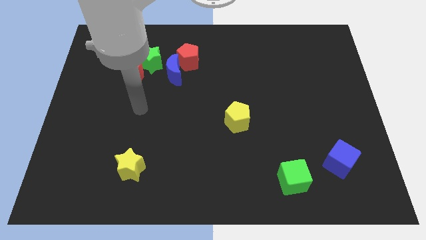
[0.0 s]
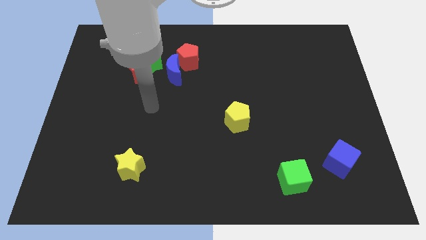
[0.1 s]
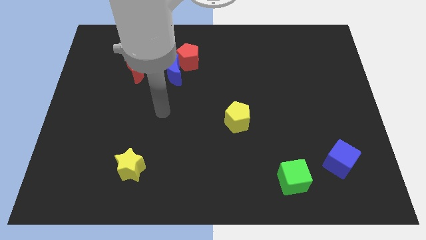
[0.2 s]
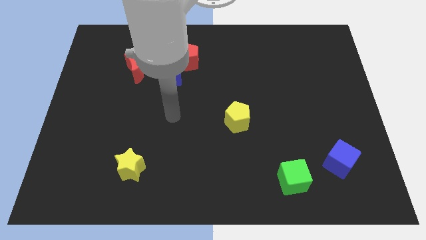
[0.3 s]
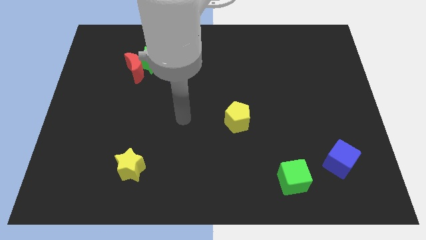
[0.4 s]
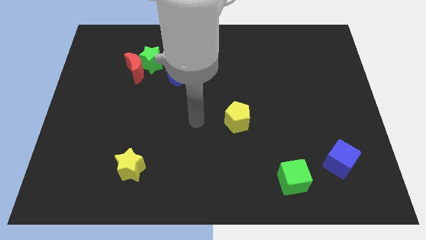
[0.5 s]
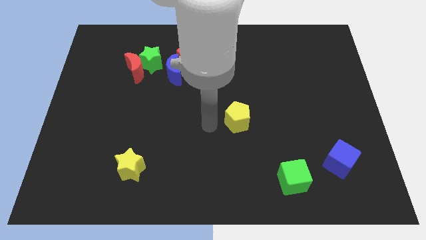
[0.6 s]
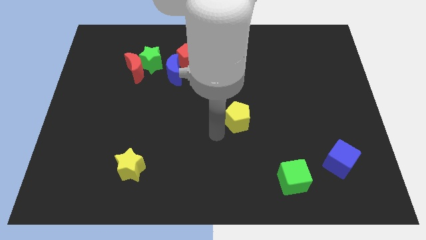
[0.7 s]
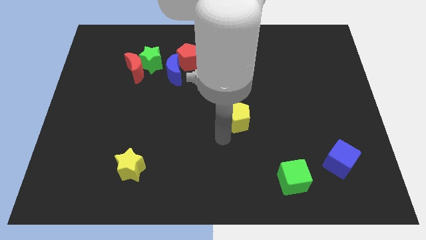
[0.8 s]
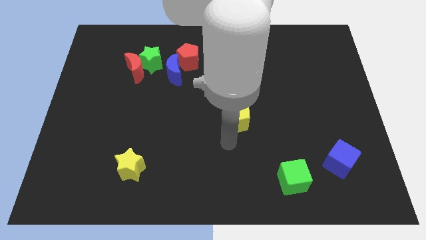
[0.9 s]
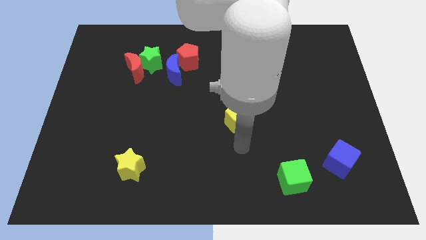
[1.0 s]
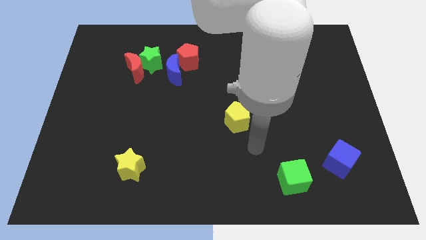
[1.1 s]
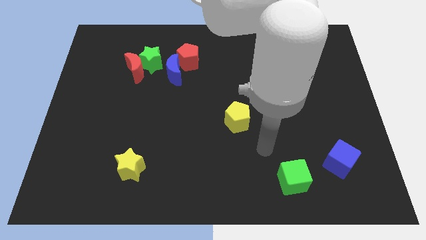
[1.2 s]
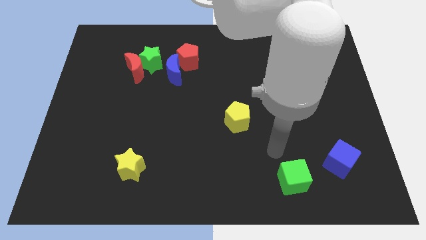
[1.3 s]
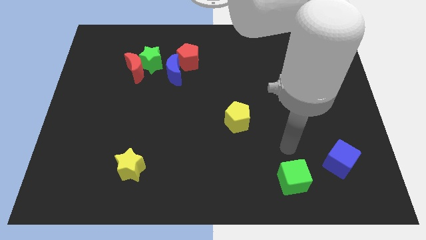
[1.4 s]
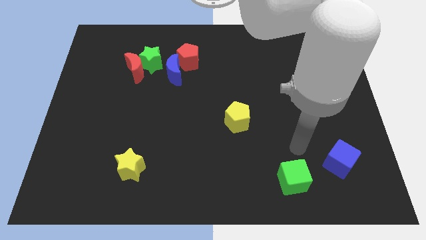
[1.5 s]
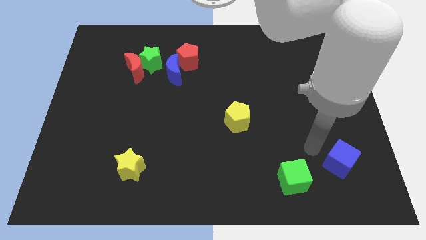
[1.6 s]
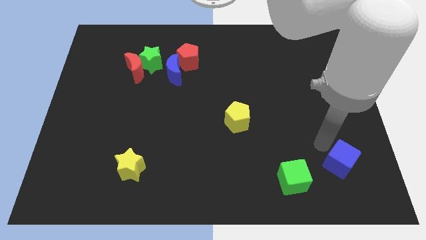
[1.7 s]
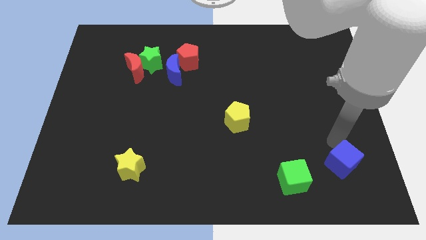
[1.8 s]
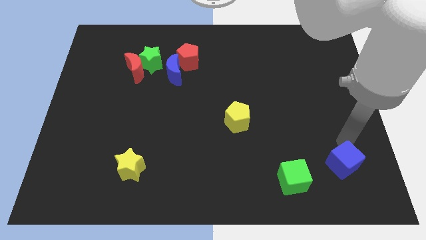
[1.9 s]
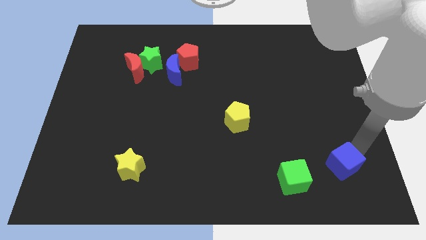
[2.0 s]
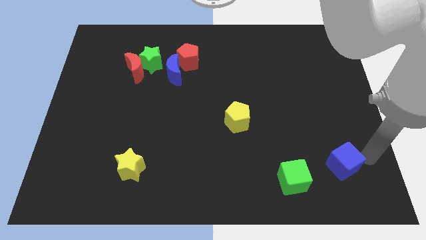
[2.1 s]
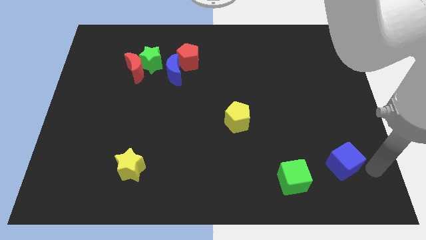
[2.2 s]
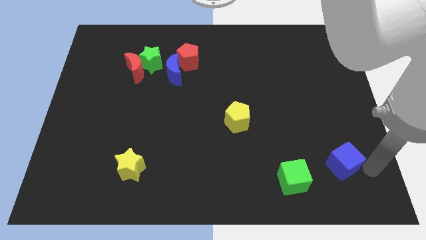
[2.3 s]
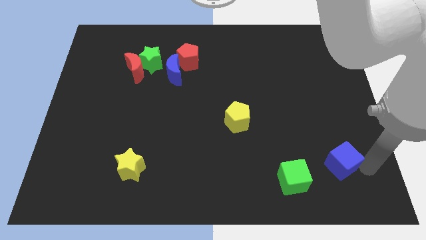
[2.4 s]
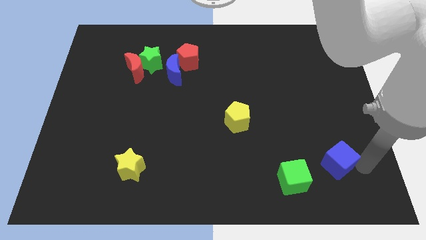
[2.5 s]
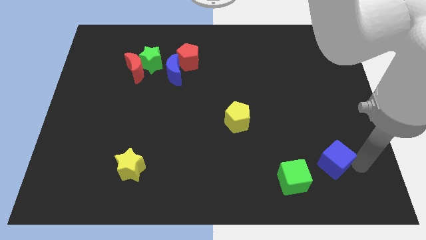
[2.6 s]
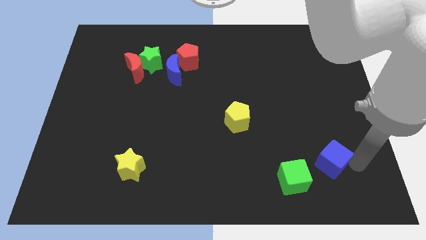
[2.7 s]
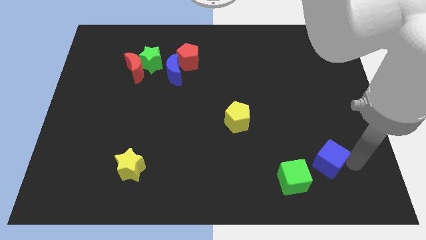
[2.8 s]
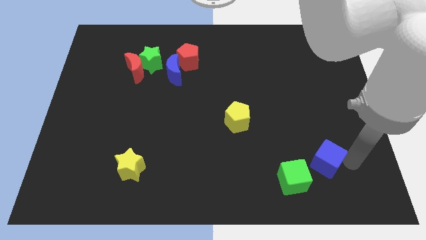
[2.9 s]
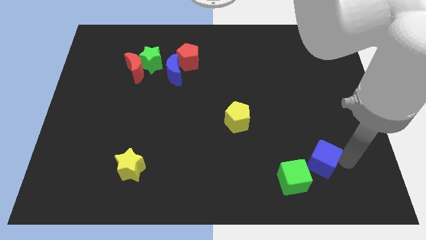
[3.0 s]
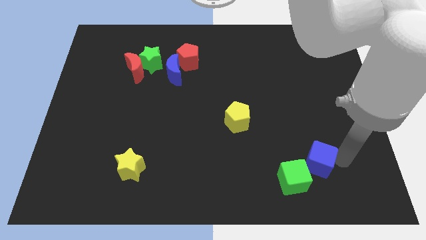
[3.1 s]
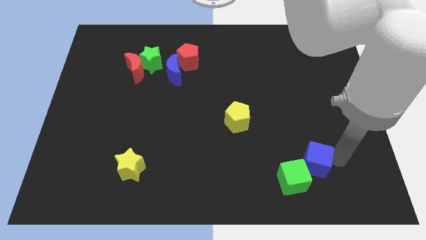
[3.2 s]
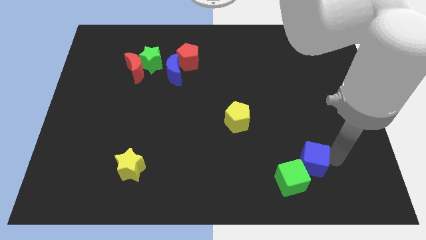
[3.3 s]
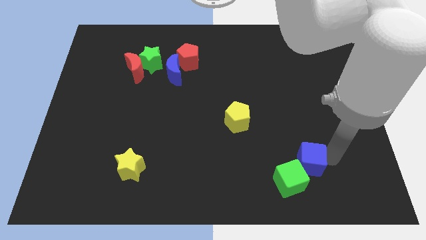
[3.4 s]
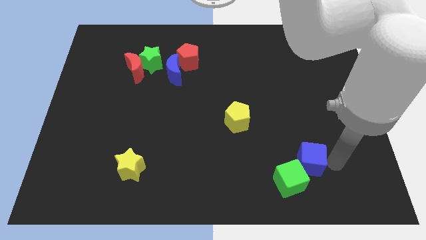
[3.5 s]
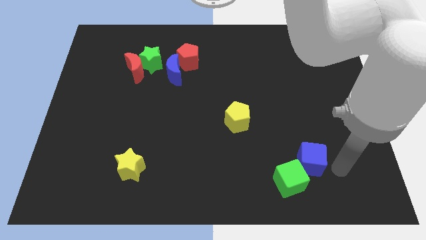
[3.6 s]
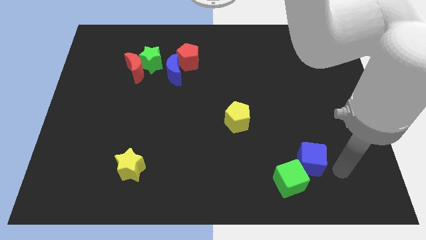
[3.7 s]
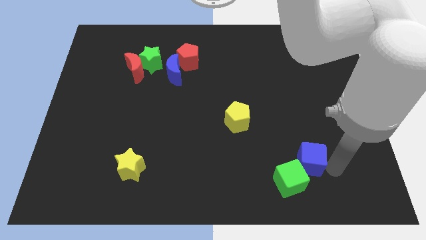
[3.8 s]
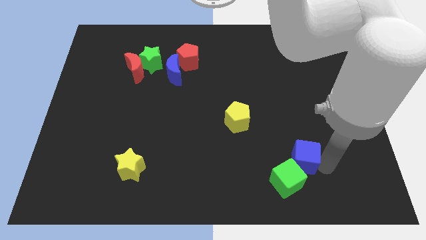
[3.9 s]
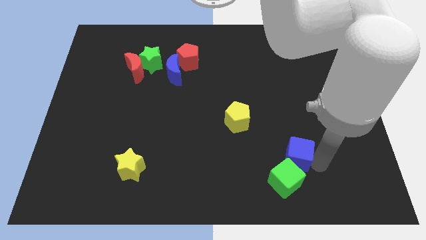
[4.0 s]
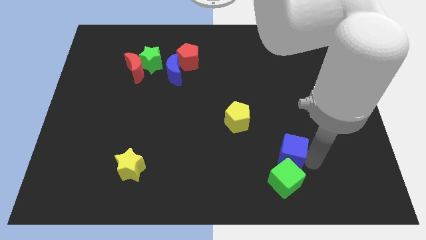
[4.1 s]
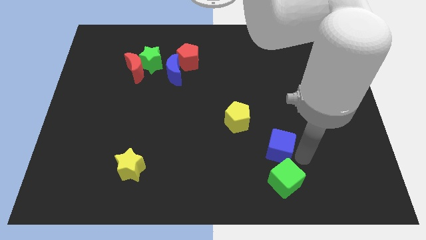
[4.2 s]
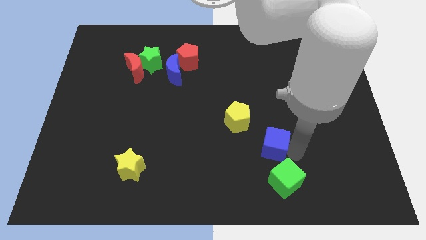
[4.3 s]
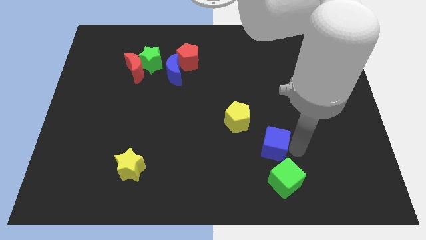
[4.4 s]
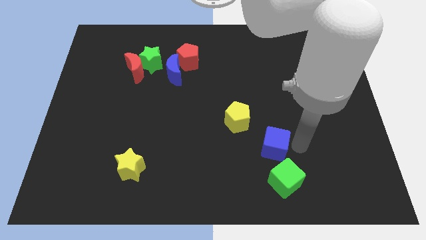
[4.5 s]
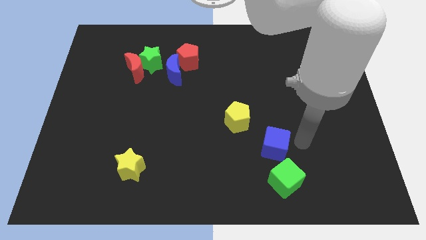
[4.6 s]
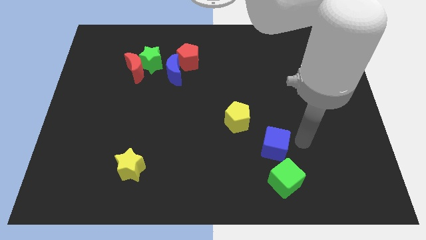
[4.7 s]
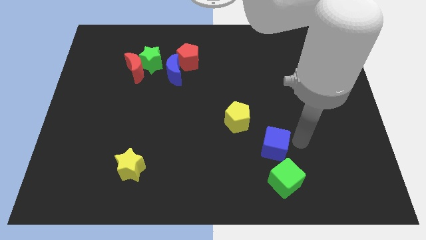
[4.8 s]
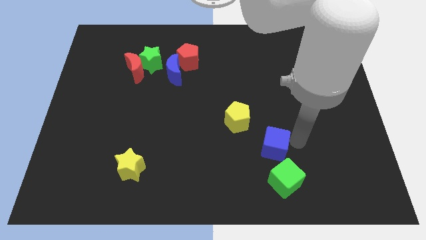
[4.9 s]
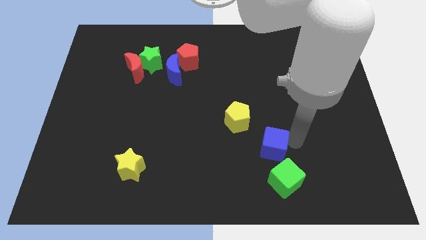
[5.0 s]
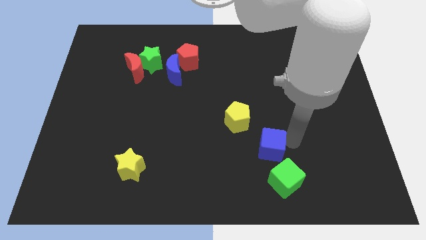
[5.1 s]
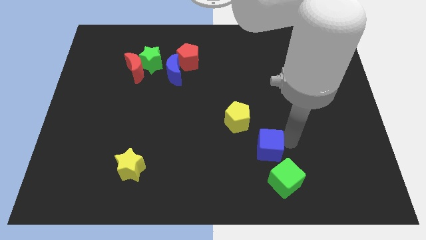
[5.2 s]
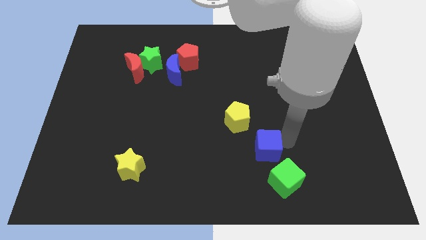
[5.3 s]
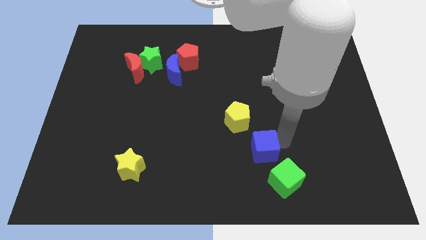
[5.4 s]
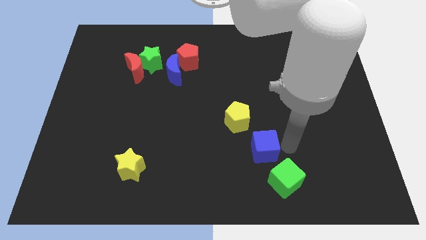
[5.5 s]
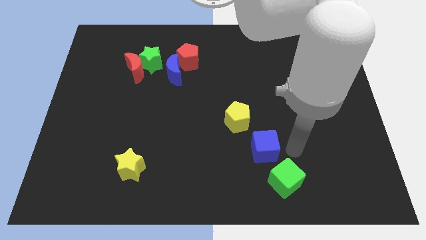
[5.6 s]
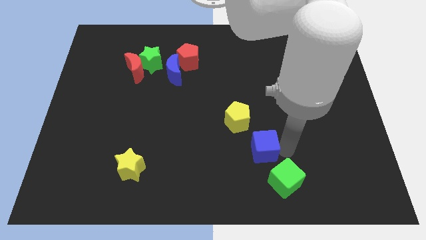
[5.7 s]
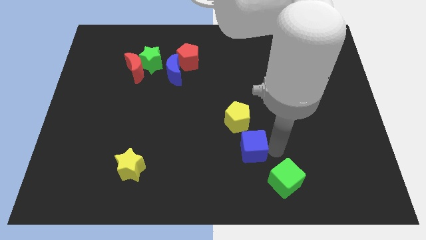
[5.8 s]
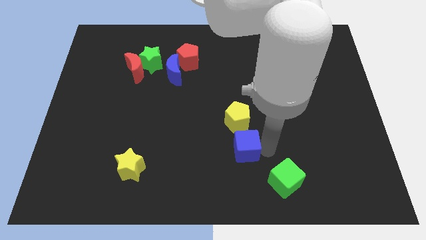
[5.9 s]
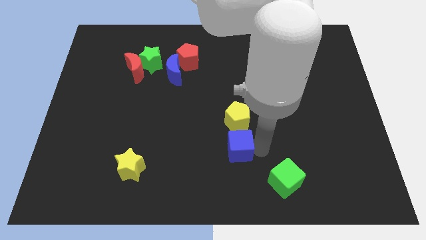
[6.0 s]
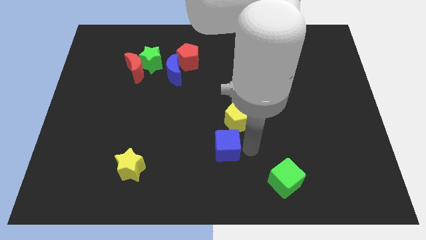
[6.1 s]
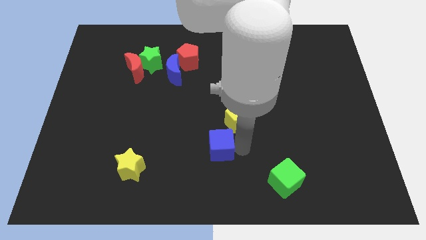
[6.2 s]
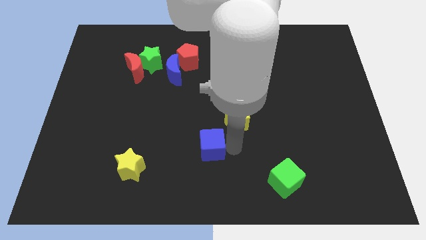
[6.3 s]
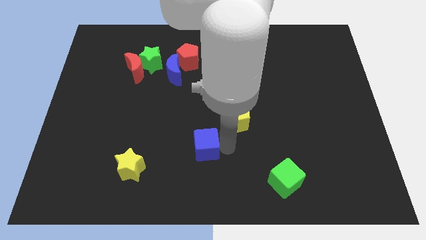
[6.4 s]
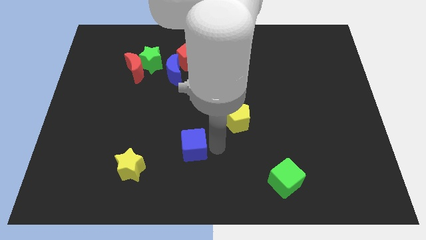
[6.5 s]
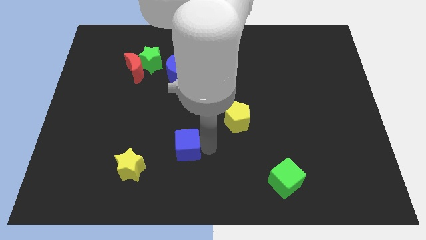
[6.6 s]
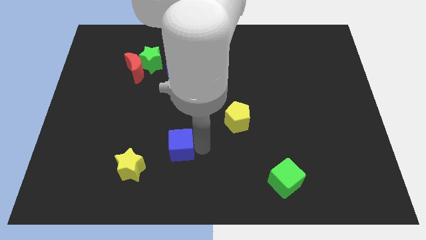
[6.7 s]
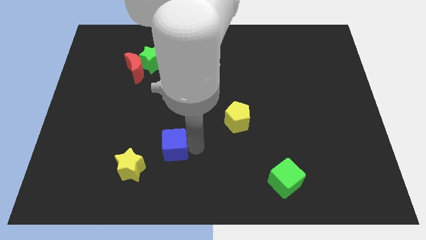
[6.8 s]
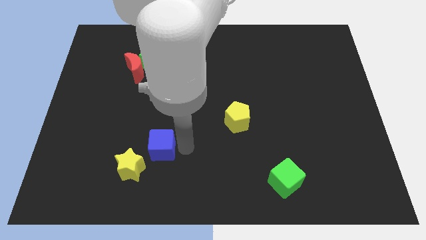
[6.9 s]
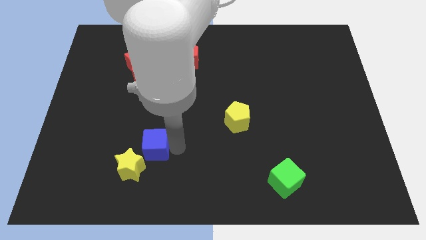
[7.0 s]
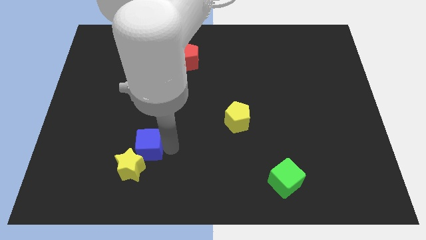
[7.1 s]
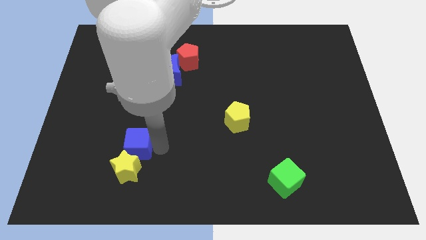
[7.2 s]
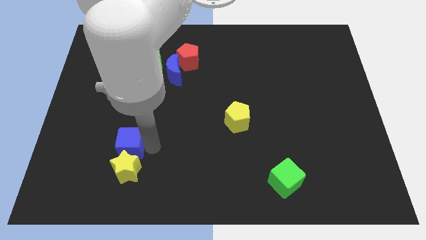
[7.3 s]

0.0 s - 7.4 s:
push the blue cube to the top left side of the yellow star

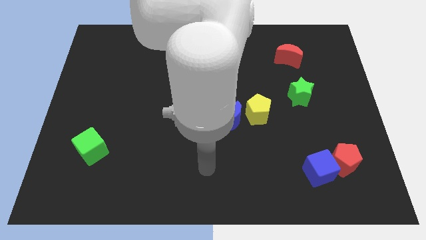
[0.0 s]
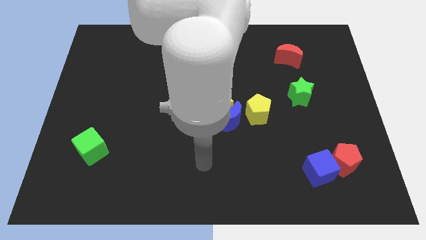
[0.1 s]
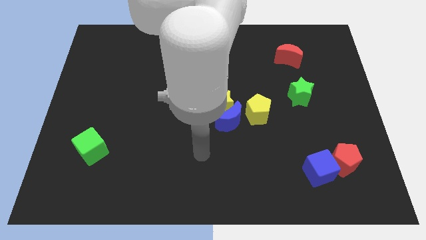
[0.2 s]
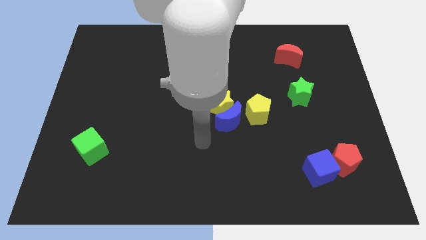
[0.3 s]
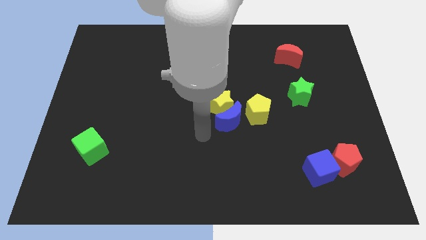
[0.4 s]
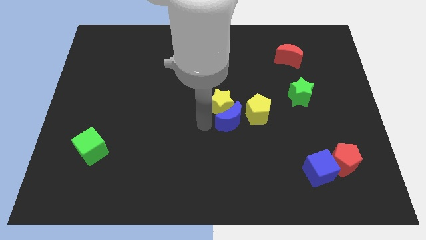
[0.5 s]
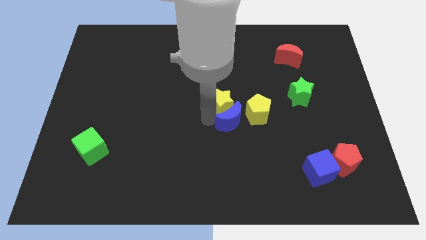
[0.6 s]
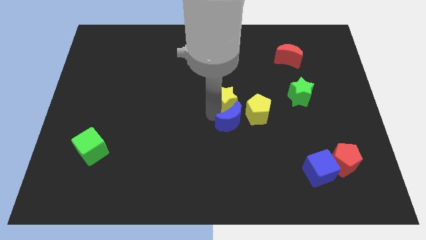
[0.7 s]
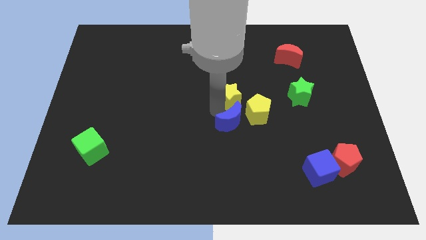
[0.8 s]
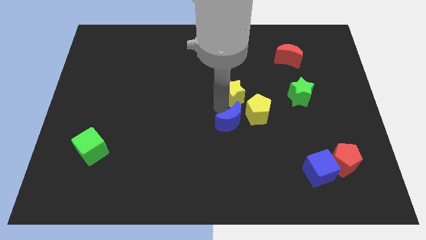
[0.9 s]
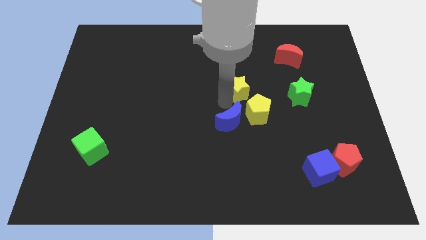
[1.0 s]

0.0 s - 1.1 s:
slide the yellow star above the yellow pentagon
